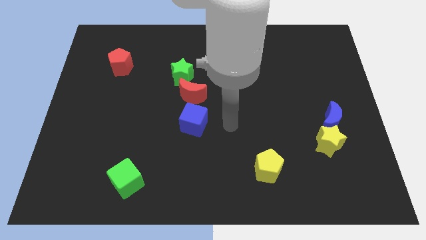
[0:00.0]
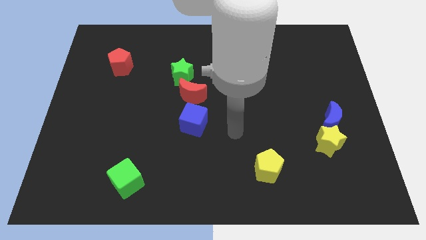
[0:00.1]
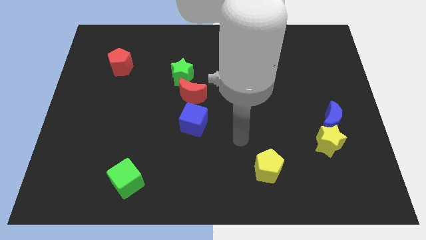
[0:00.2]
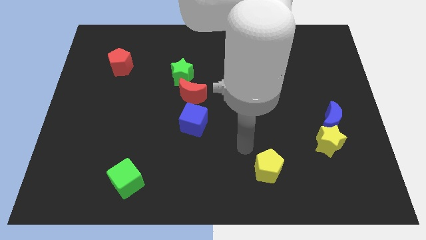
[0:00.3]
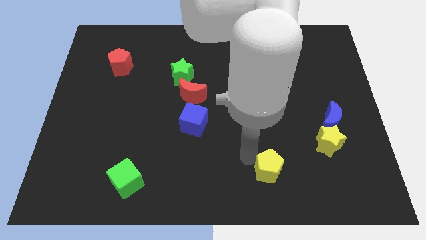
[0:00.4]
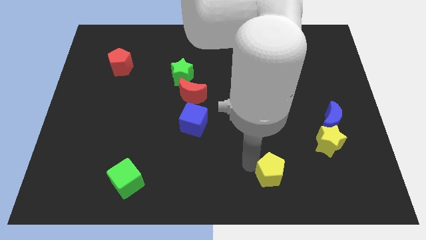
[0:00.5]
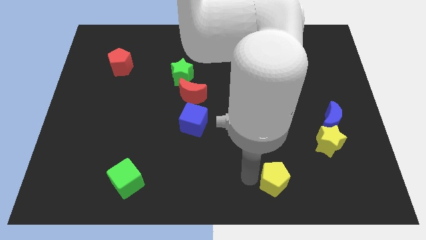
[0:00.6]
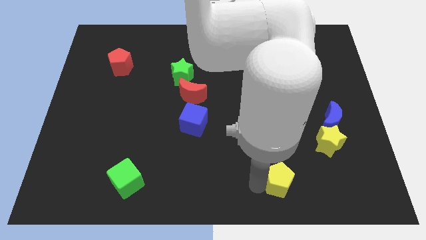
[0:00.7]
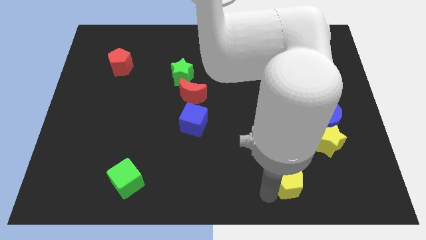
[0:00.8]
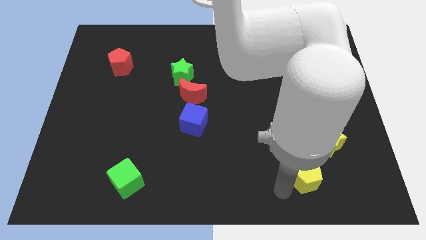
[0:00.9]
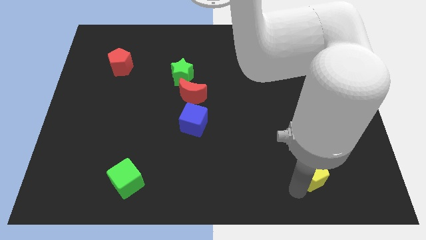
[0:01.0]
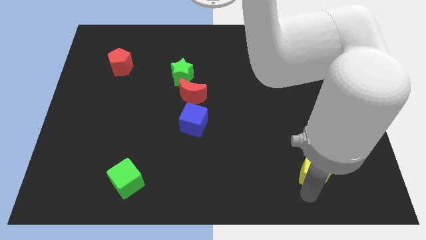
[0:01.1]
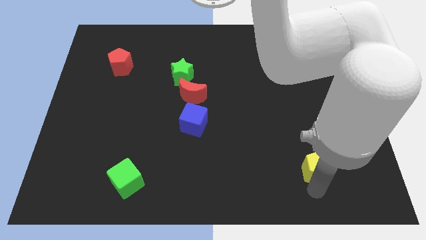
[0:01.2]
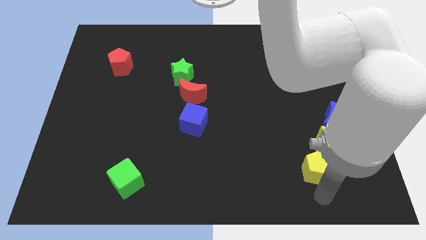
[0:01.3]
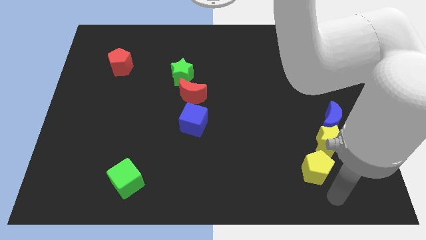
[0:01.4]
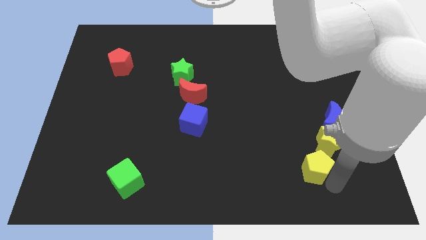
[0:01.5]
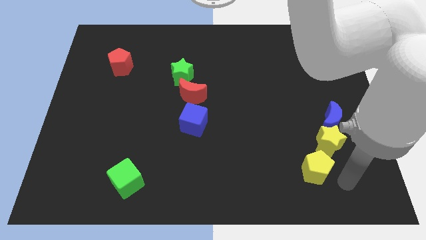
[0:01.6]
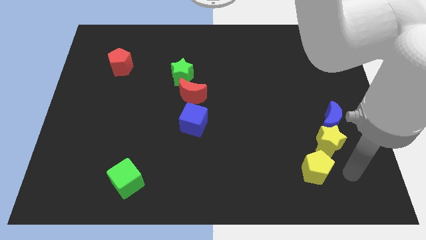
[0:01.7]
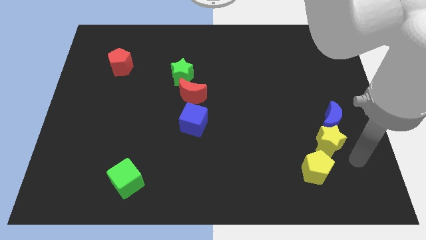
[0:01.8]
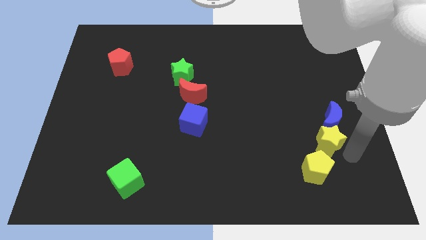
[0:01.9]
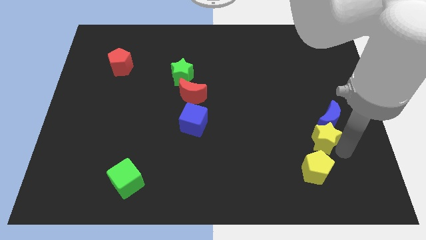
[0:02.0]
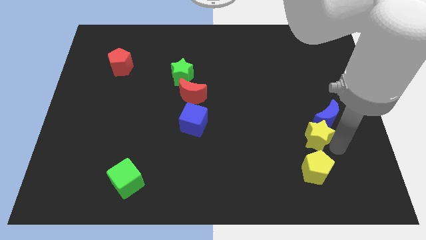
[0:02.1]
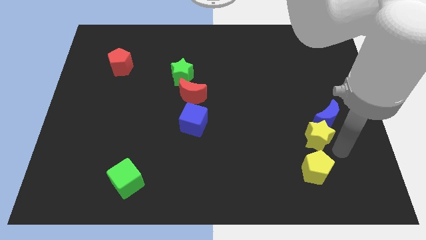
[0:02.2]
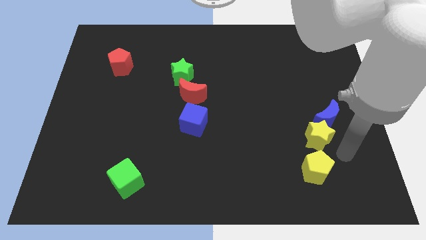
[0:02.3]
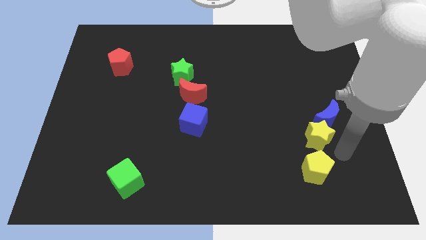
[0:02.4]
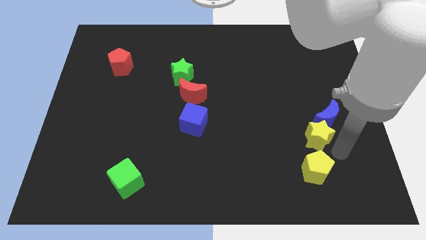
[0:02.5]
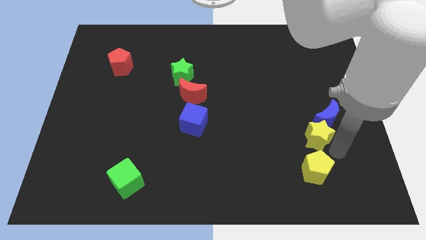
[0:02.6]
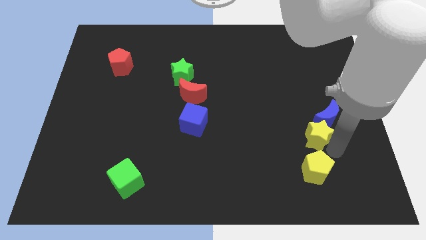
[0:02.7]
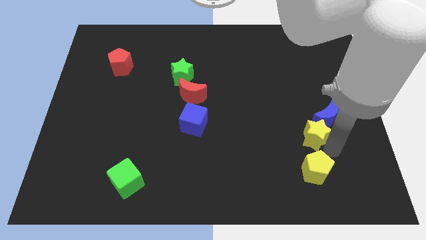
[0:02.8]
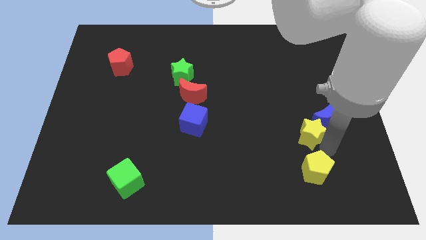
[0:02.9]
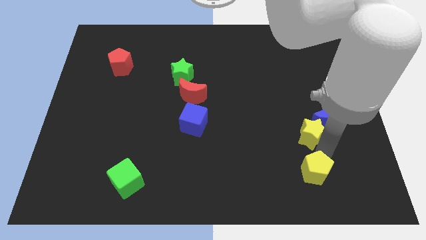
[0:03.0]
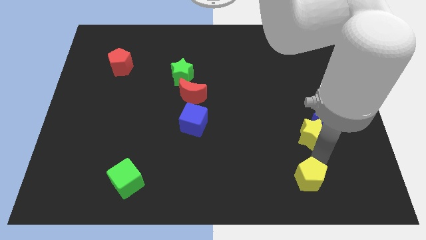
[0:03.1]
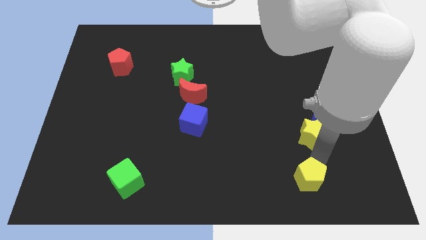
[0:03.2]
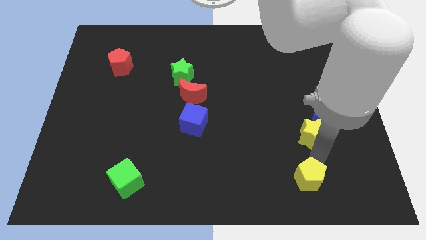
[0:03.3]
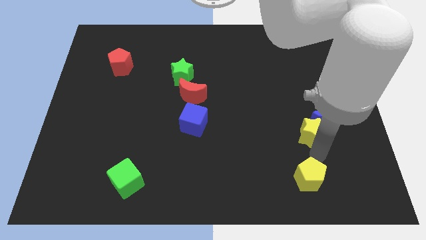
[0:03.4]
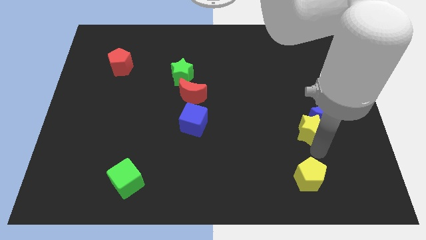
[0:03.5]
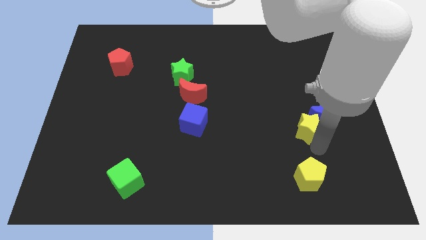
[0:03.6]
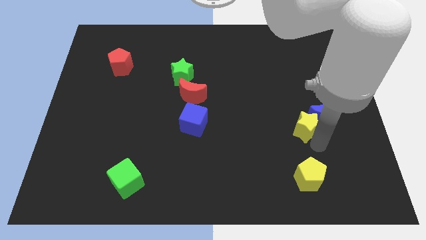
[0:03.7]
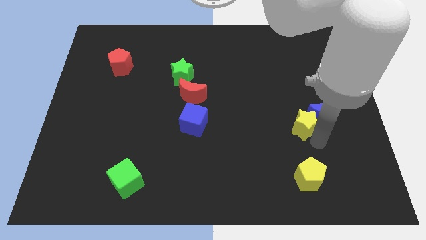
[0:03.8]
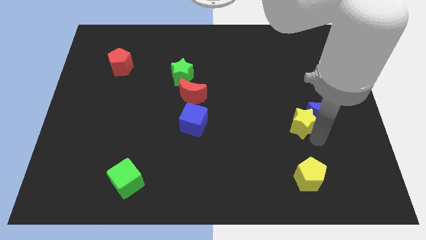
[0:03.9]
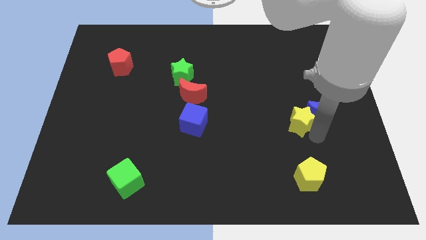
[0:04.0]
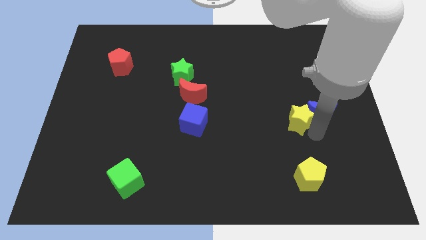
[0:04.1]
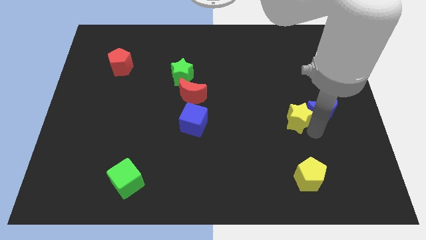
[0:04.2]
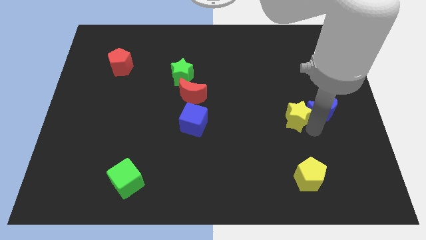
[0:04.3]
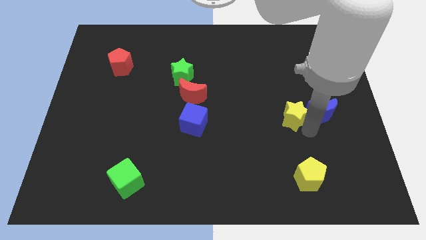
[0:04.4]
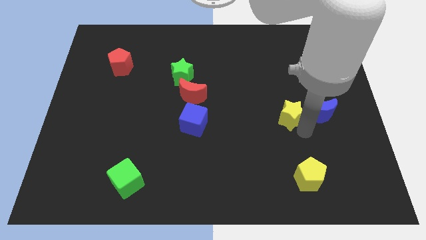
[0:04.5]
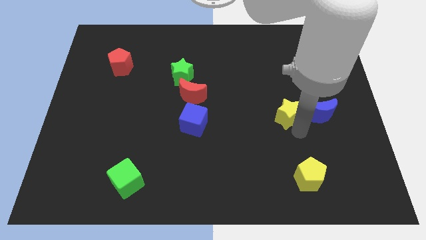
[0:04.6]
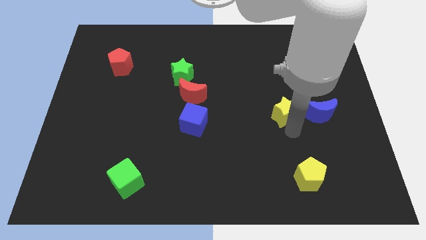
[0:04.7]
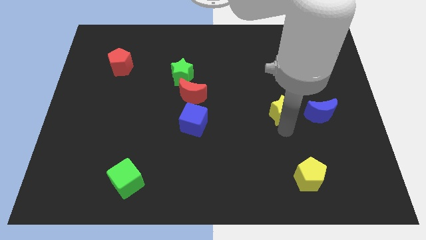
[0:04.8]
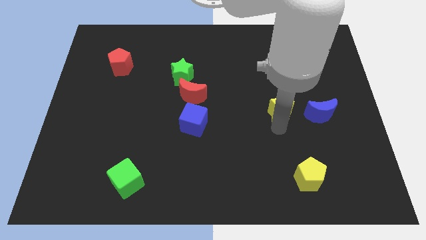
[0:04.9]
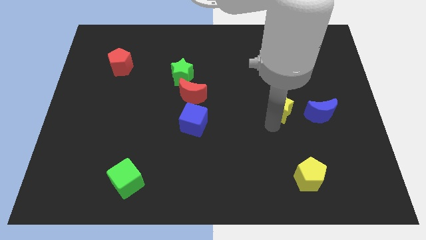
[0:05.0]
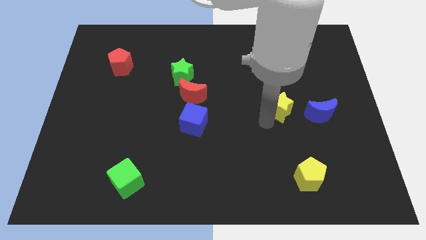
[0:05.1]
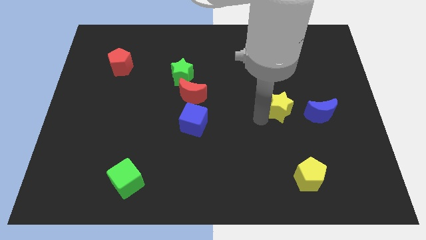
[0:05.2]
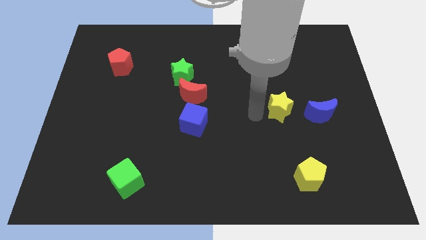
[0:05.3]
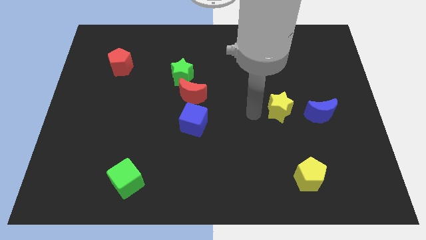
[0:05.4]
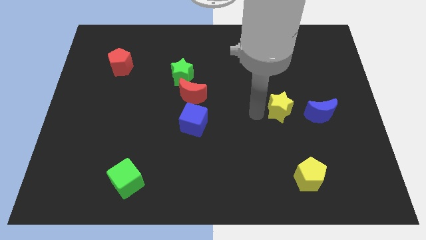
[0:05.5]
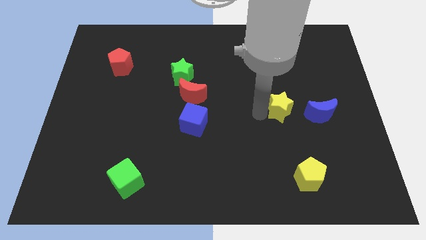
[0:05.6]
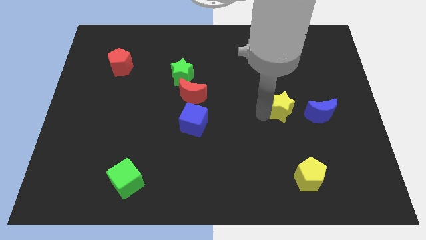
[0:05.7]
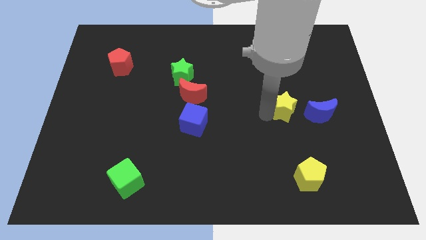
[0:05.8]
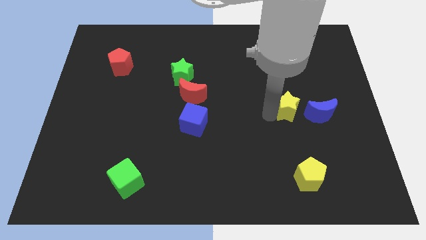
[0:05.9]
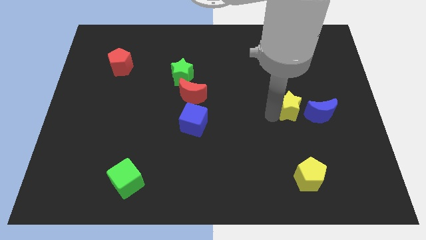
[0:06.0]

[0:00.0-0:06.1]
slide the yellow star a little bit up

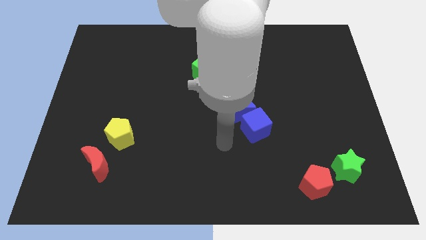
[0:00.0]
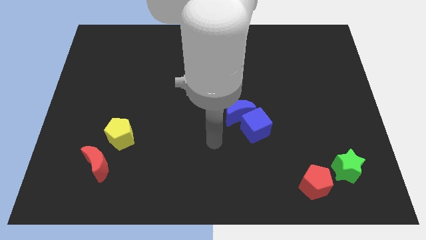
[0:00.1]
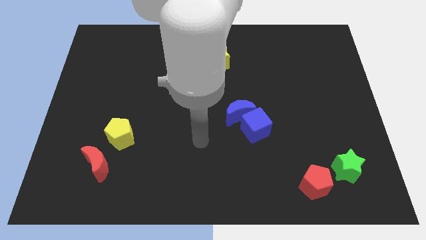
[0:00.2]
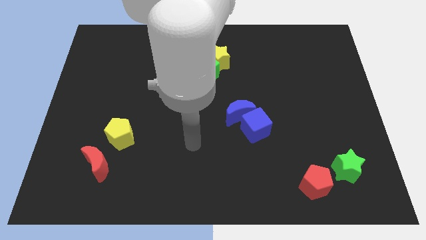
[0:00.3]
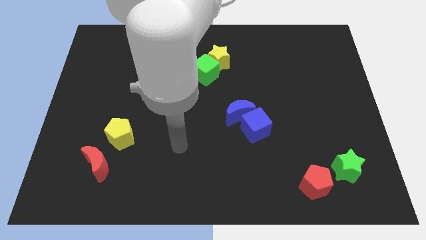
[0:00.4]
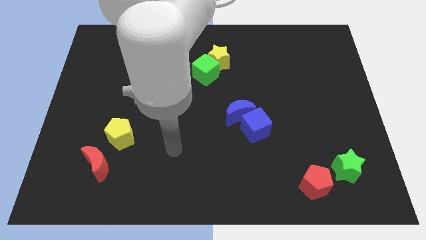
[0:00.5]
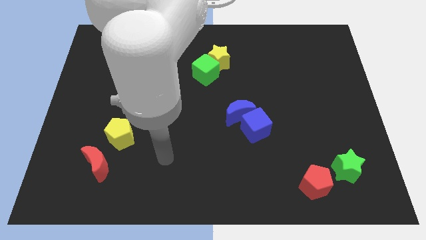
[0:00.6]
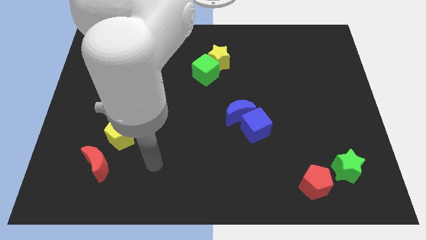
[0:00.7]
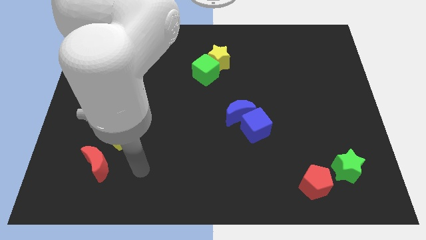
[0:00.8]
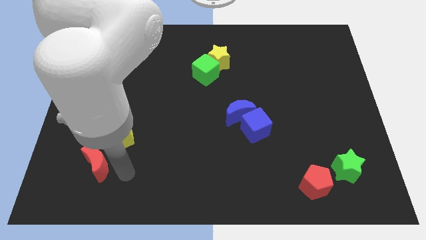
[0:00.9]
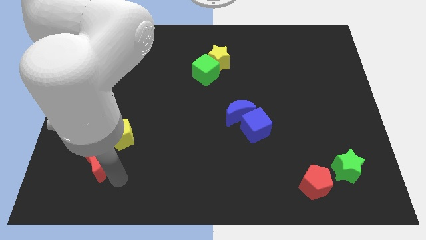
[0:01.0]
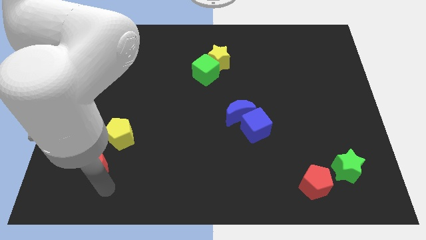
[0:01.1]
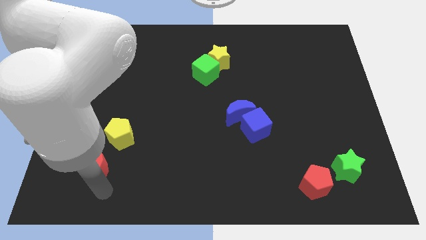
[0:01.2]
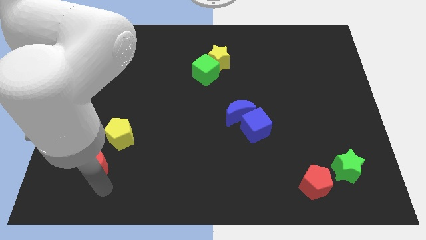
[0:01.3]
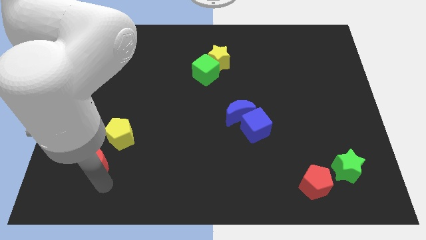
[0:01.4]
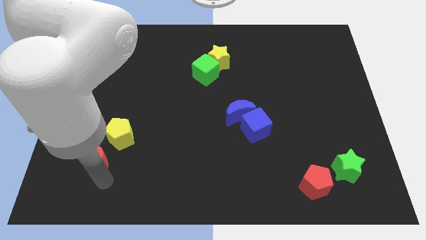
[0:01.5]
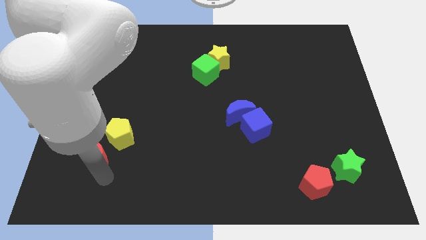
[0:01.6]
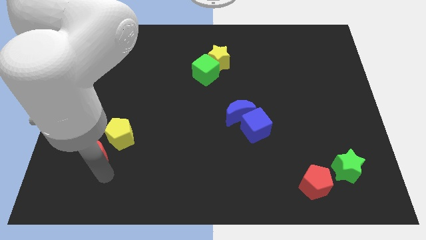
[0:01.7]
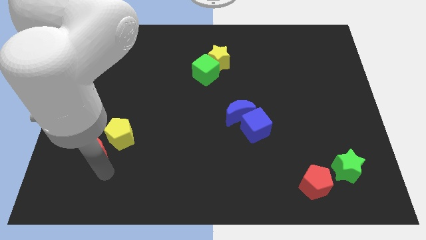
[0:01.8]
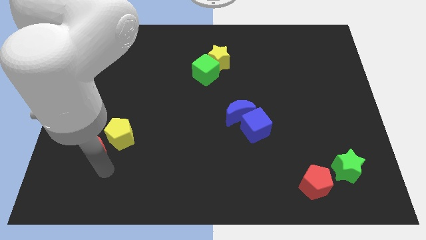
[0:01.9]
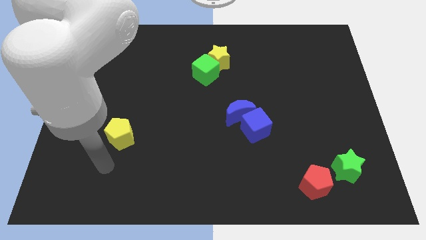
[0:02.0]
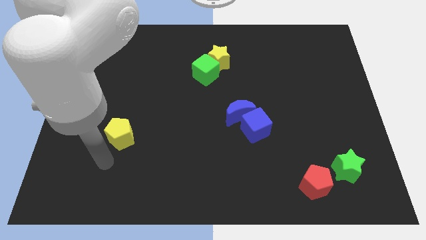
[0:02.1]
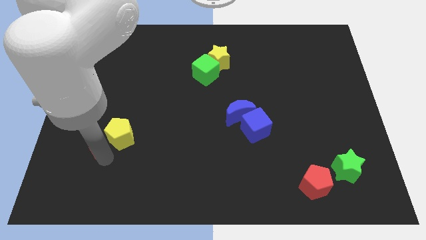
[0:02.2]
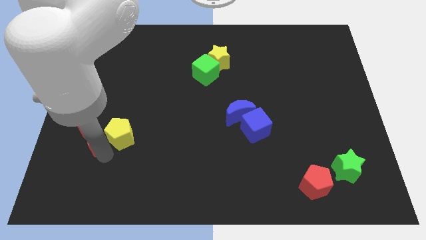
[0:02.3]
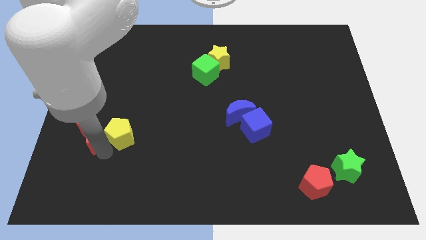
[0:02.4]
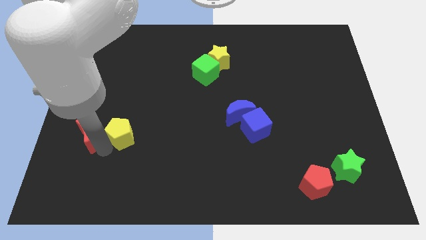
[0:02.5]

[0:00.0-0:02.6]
push the red moon slightly up
